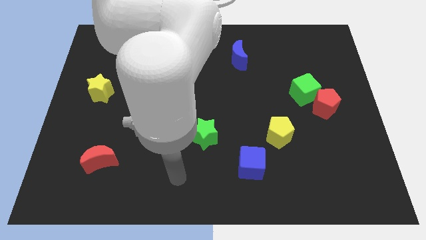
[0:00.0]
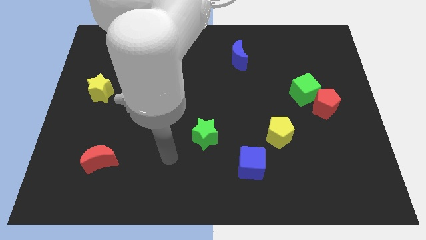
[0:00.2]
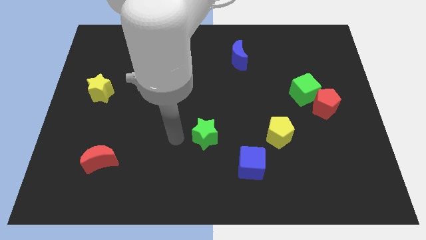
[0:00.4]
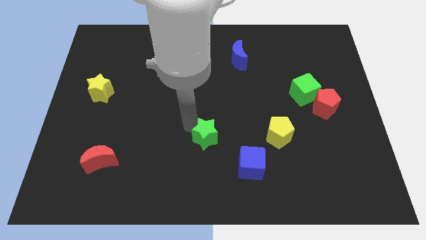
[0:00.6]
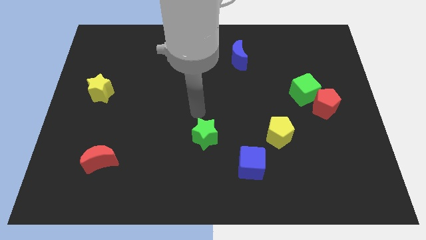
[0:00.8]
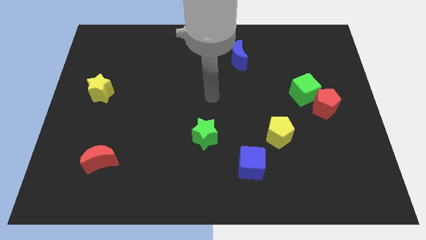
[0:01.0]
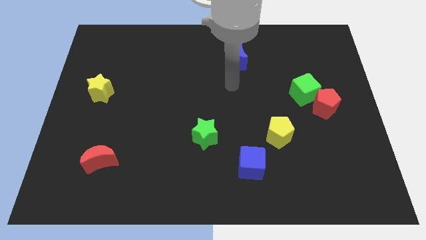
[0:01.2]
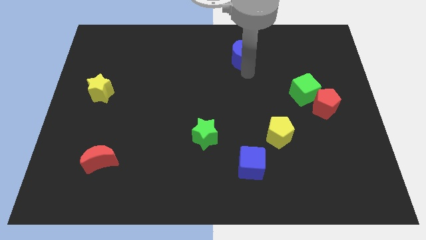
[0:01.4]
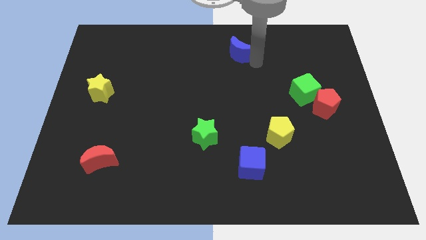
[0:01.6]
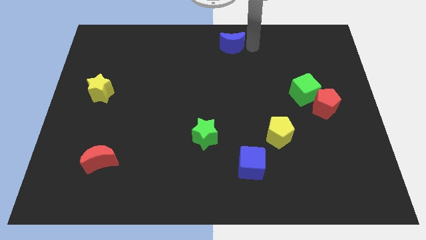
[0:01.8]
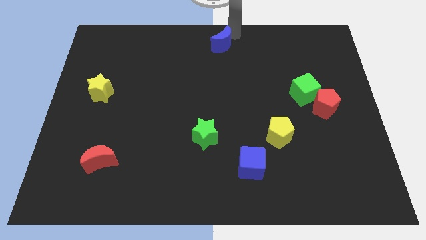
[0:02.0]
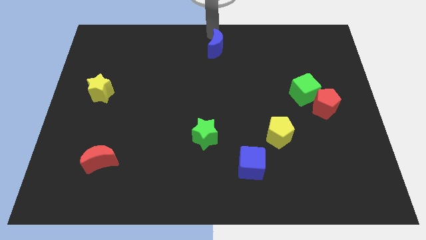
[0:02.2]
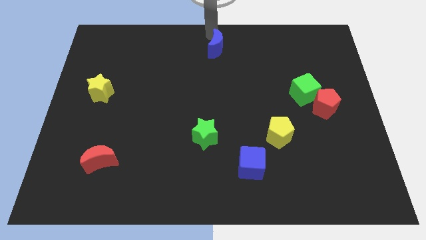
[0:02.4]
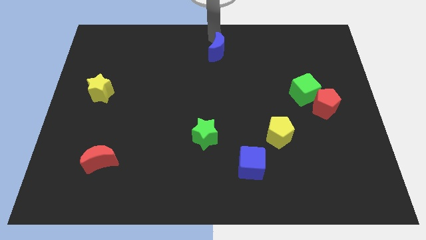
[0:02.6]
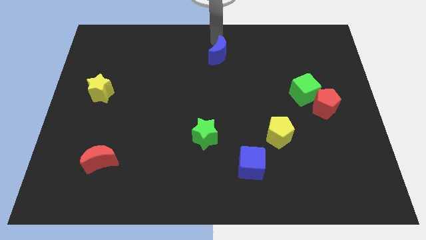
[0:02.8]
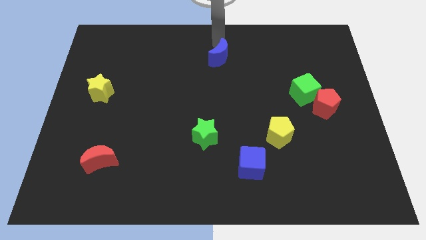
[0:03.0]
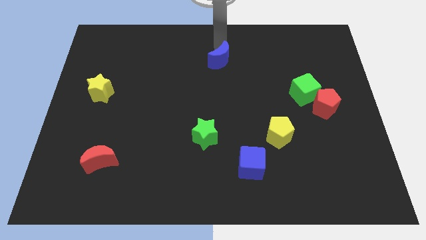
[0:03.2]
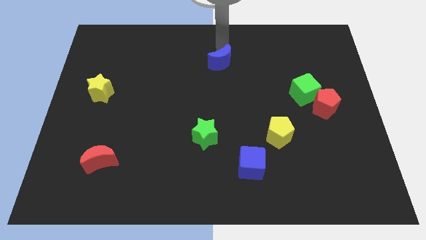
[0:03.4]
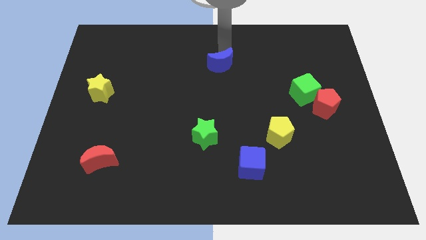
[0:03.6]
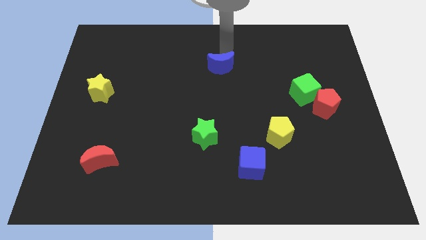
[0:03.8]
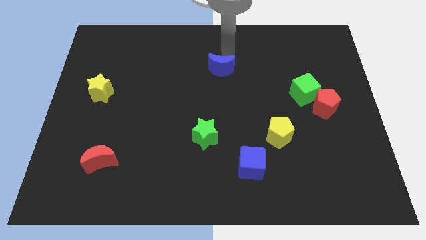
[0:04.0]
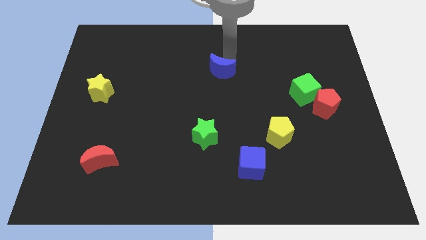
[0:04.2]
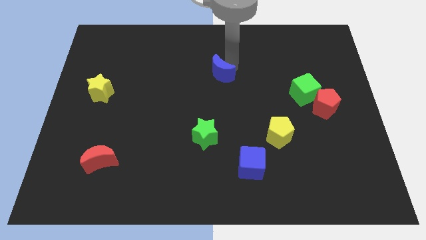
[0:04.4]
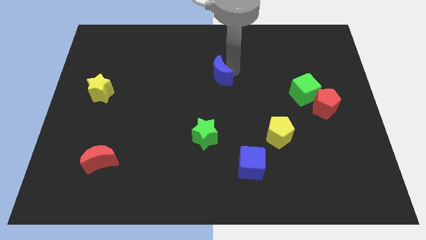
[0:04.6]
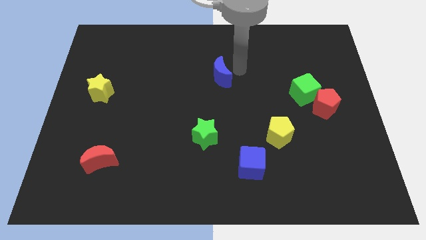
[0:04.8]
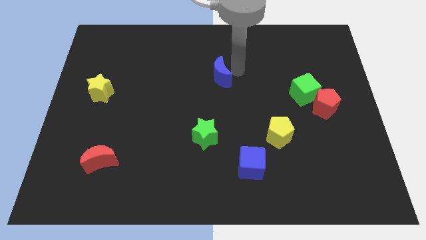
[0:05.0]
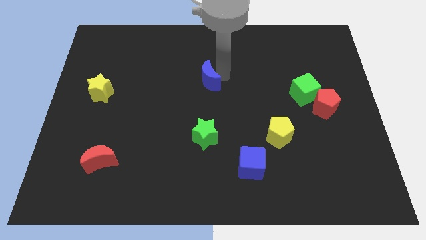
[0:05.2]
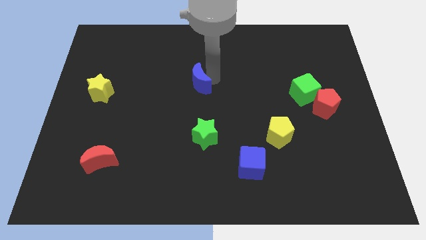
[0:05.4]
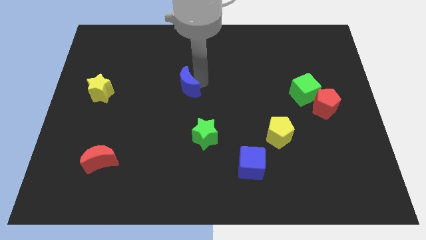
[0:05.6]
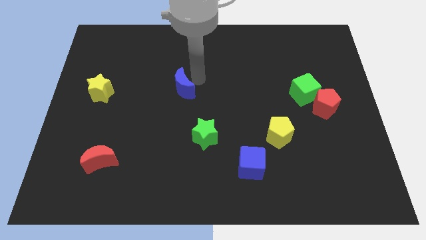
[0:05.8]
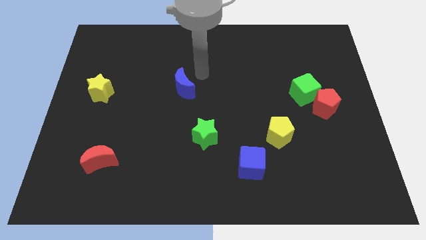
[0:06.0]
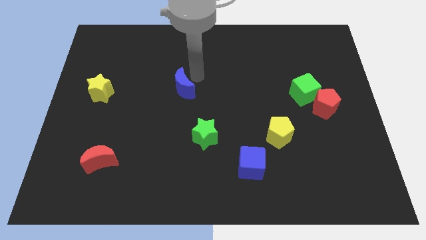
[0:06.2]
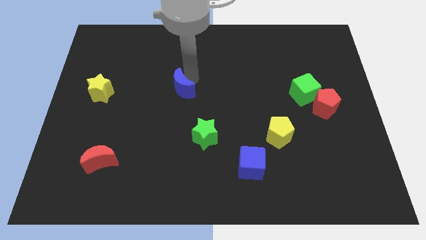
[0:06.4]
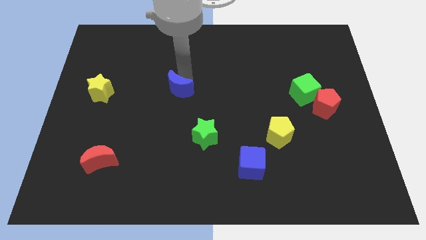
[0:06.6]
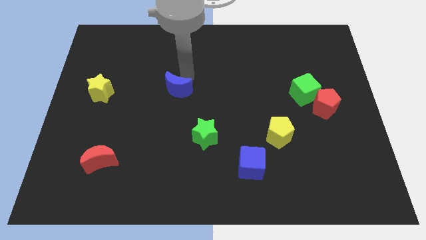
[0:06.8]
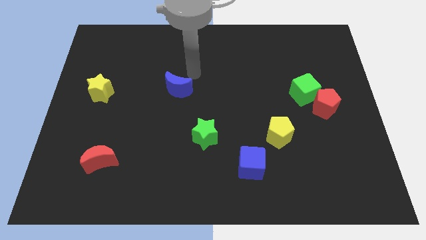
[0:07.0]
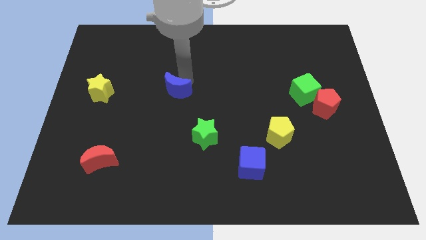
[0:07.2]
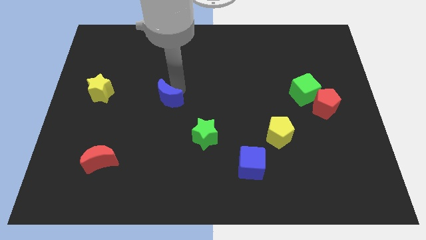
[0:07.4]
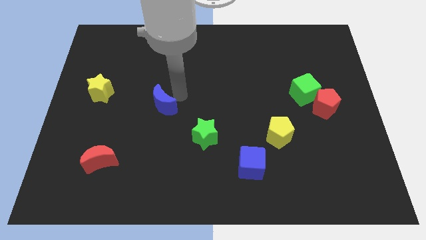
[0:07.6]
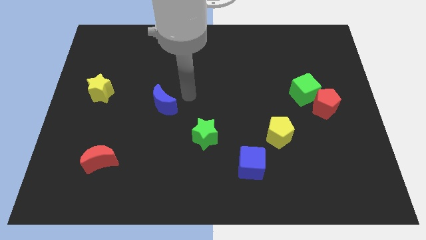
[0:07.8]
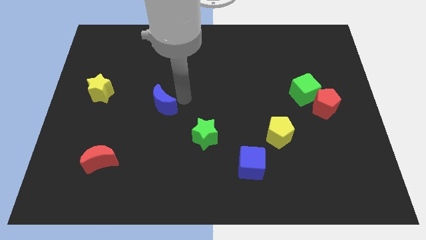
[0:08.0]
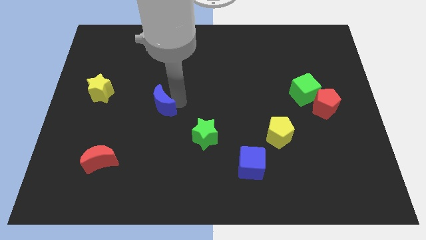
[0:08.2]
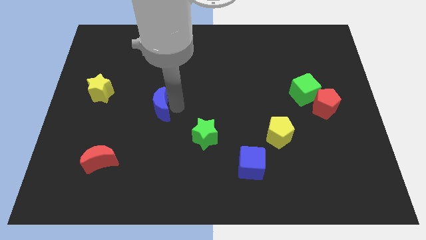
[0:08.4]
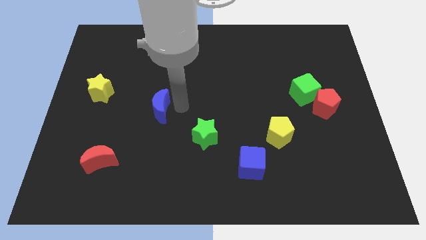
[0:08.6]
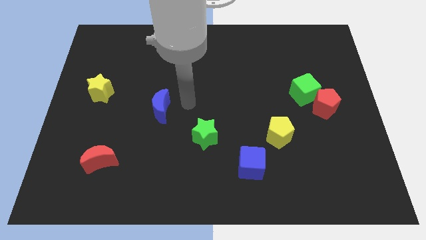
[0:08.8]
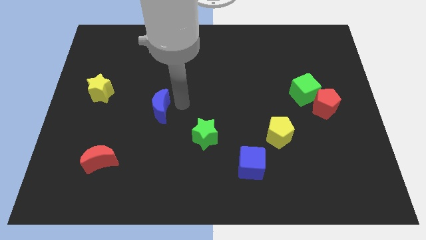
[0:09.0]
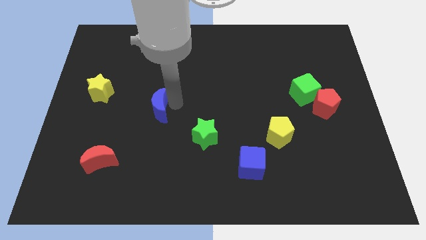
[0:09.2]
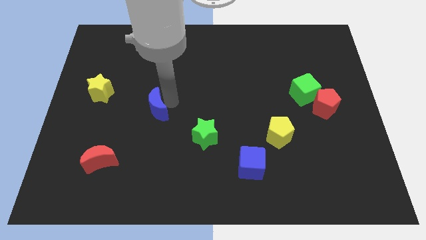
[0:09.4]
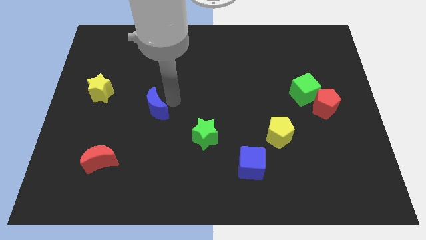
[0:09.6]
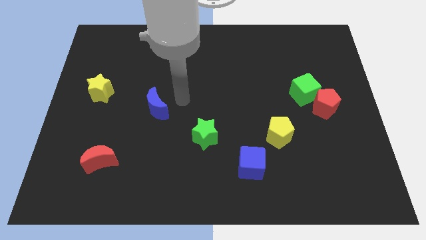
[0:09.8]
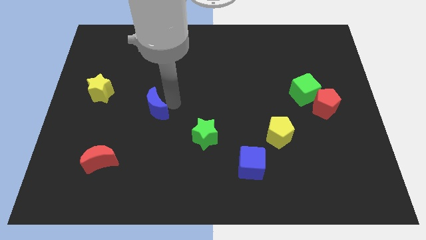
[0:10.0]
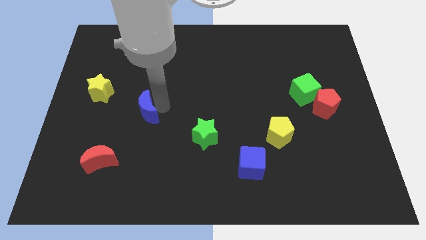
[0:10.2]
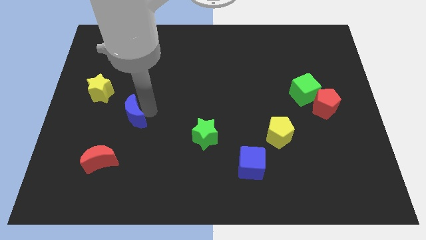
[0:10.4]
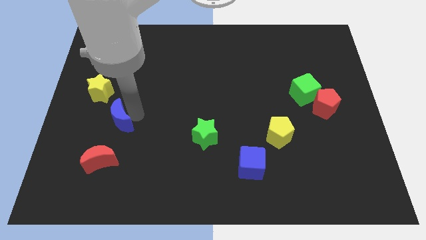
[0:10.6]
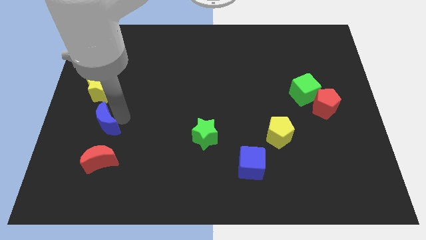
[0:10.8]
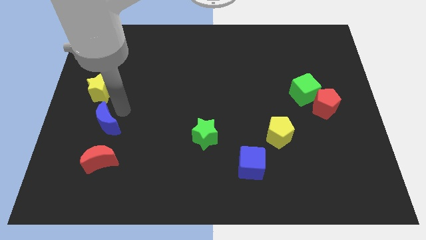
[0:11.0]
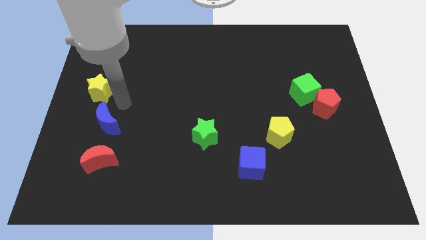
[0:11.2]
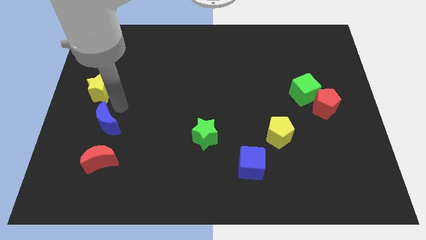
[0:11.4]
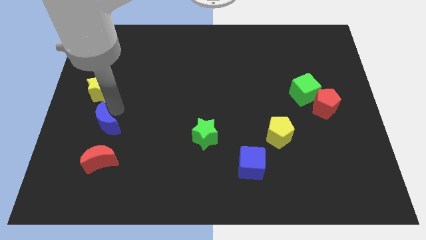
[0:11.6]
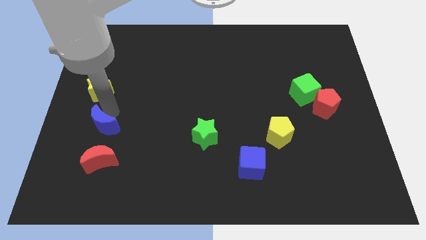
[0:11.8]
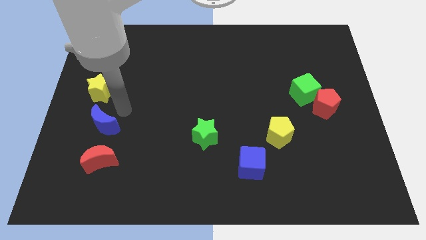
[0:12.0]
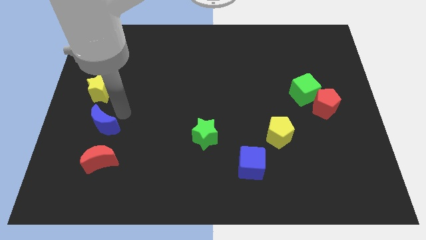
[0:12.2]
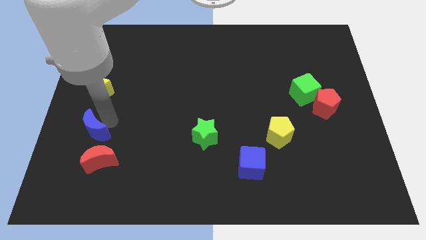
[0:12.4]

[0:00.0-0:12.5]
put the blue moon diagonally up and to the left of the red moon

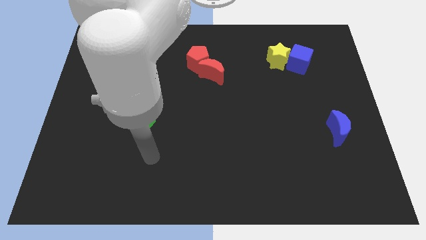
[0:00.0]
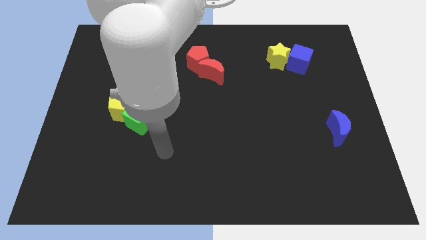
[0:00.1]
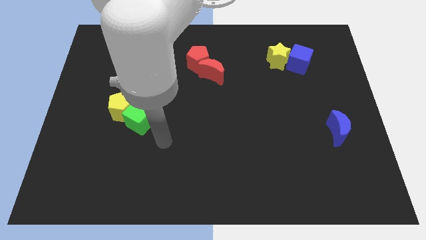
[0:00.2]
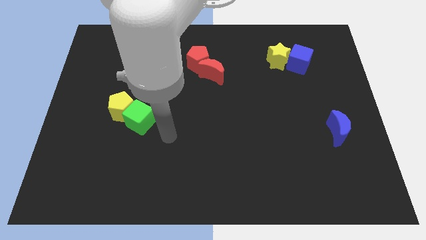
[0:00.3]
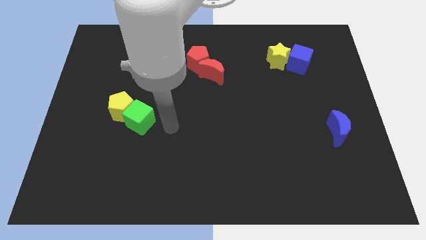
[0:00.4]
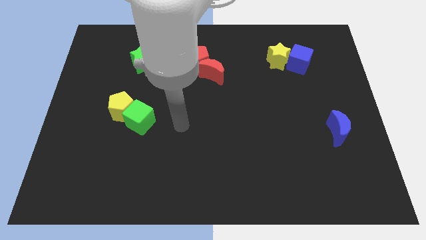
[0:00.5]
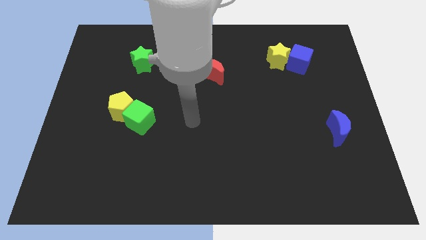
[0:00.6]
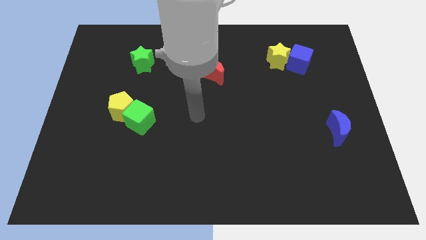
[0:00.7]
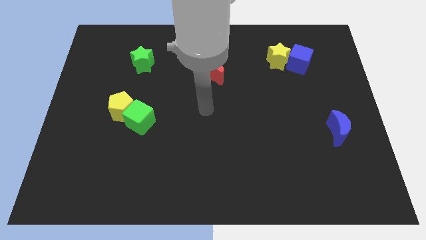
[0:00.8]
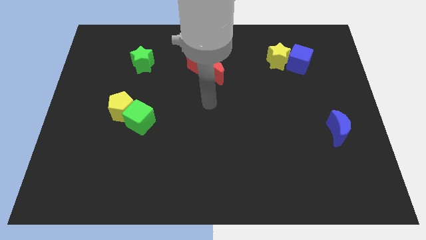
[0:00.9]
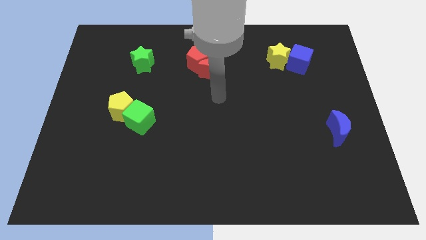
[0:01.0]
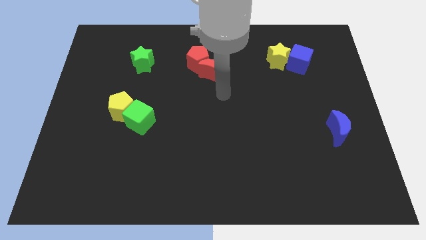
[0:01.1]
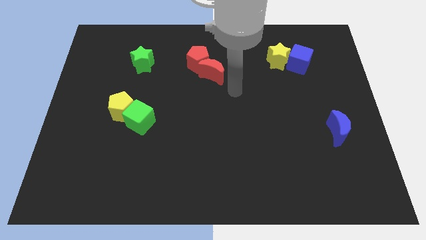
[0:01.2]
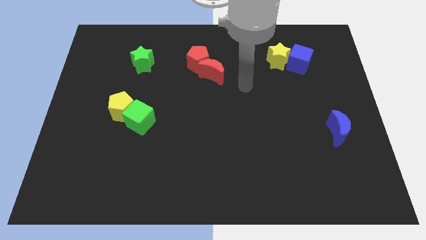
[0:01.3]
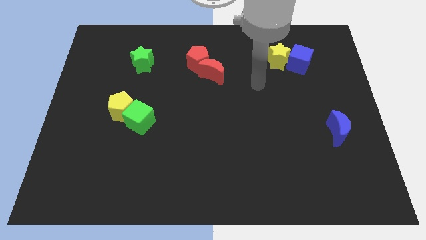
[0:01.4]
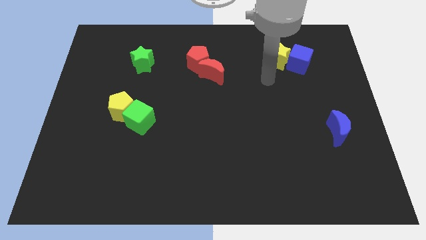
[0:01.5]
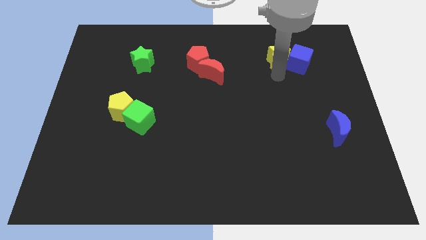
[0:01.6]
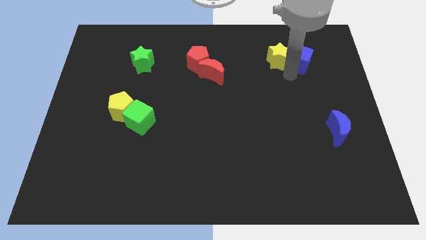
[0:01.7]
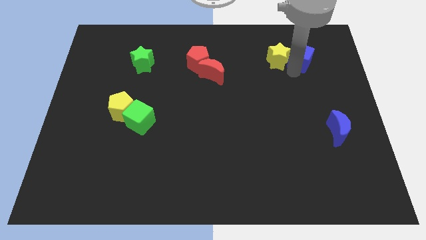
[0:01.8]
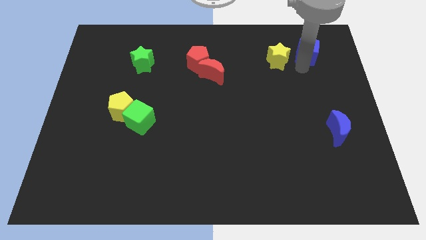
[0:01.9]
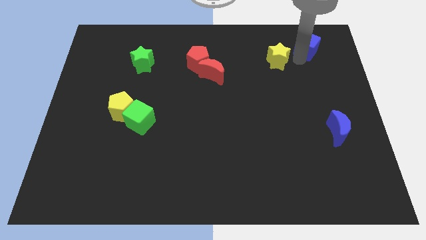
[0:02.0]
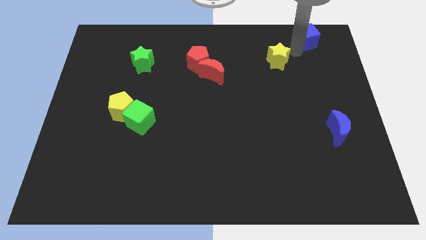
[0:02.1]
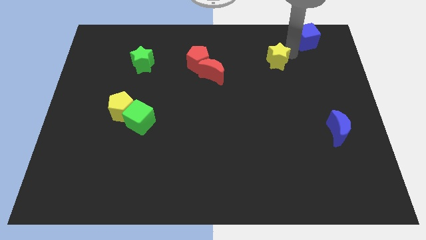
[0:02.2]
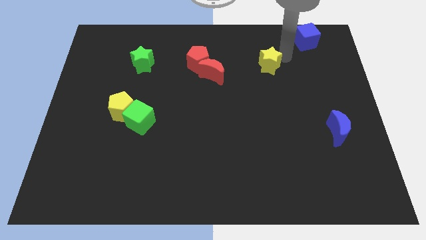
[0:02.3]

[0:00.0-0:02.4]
put the yellow star right of the red moon
